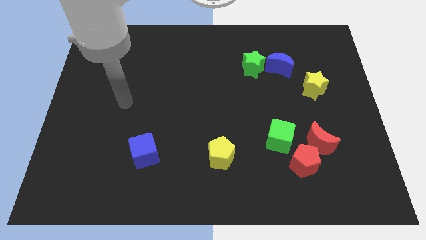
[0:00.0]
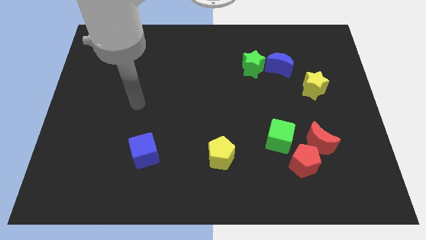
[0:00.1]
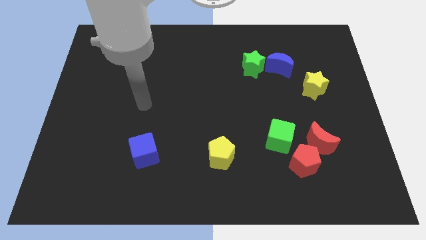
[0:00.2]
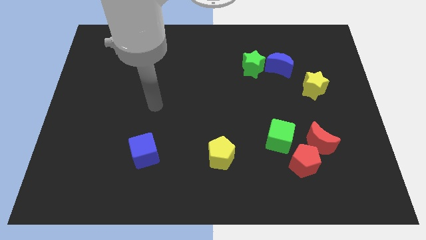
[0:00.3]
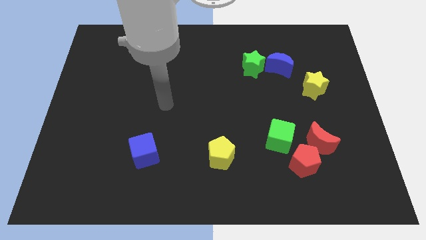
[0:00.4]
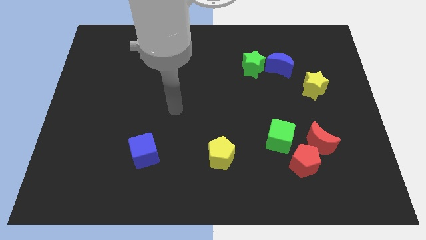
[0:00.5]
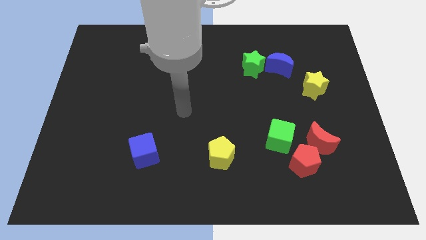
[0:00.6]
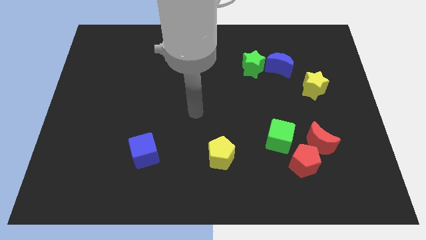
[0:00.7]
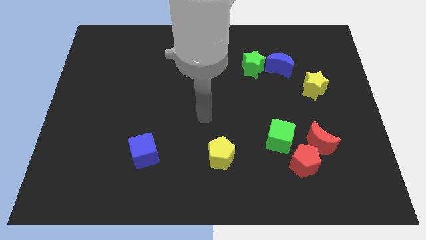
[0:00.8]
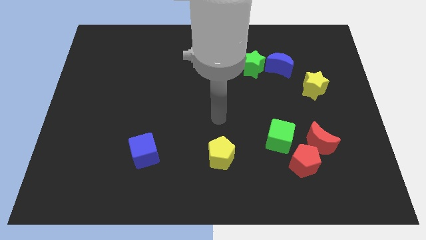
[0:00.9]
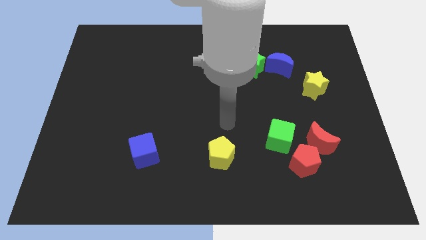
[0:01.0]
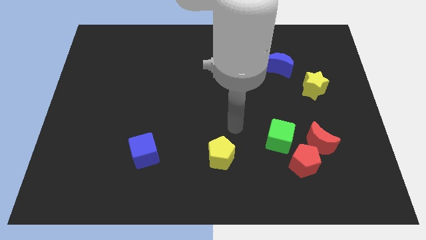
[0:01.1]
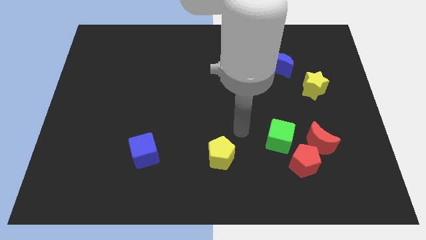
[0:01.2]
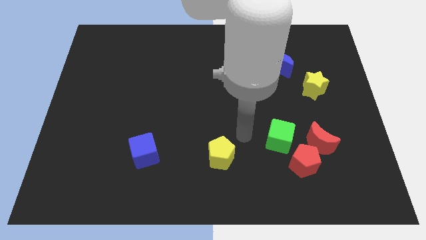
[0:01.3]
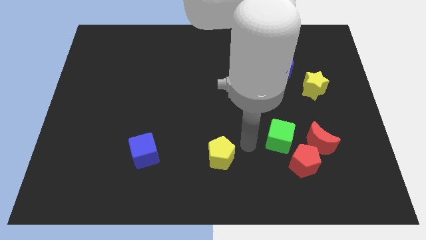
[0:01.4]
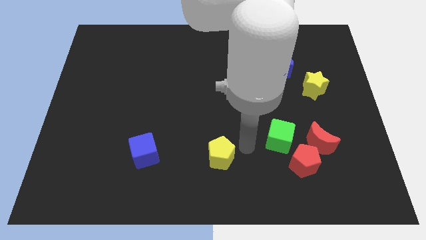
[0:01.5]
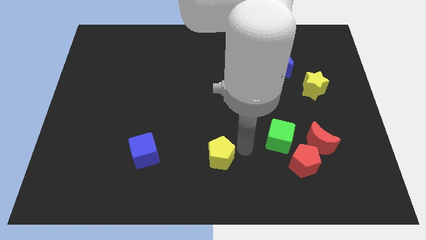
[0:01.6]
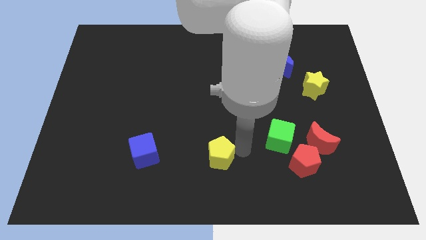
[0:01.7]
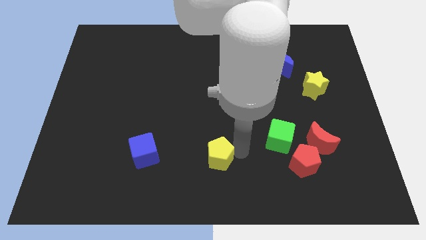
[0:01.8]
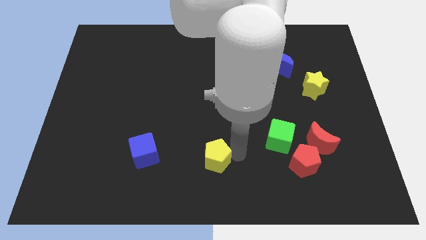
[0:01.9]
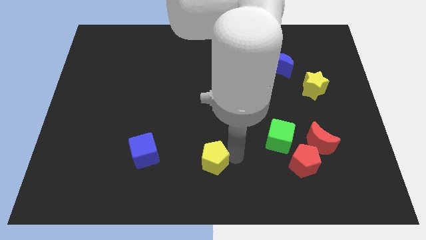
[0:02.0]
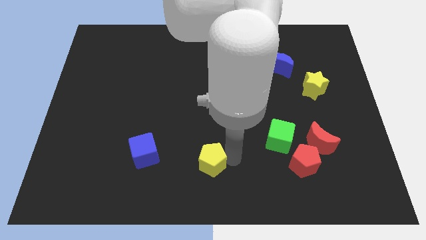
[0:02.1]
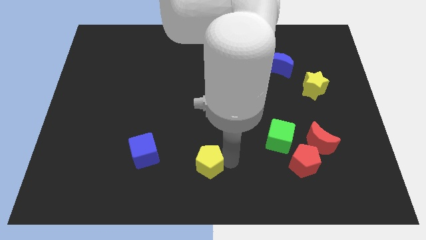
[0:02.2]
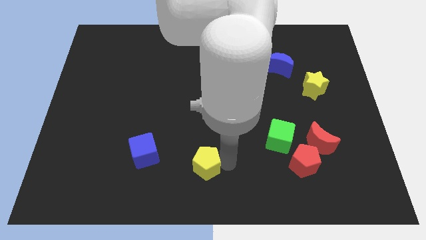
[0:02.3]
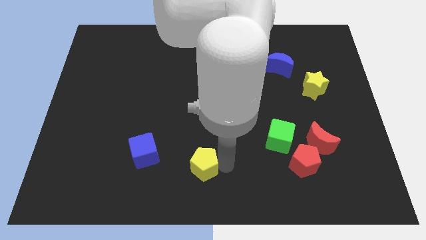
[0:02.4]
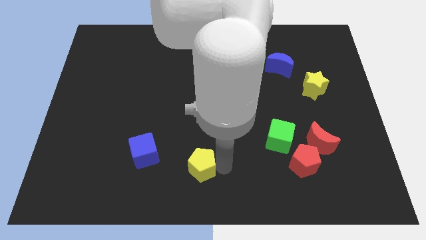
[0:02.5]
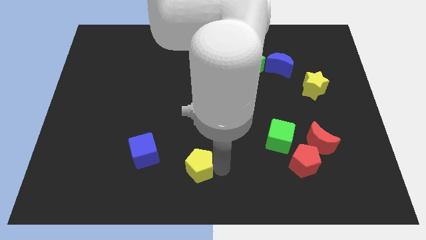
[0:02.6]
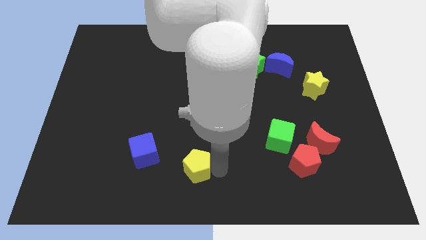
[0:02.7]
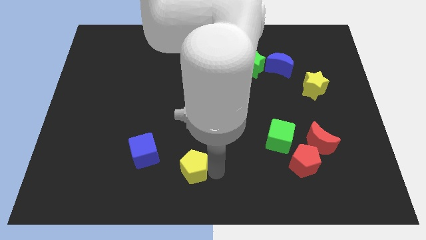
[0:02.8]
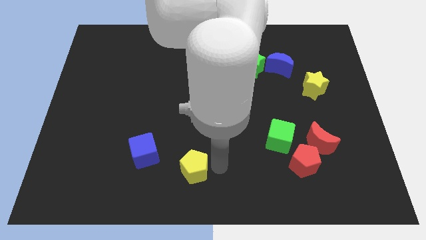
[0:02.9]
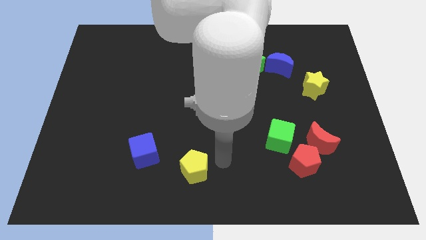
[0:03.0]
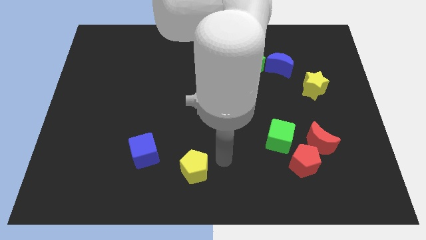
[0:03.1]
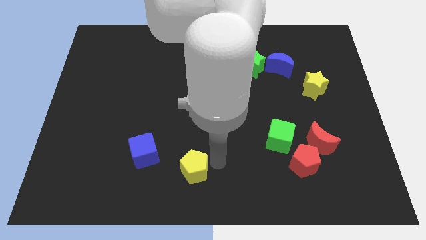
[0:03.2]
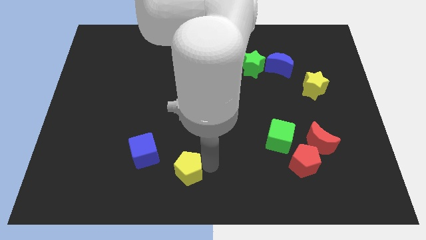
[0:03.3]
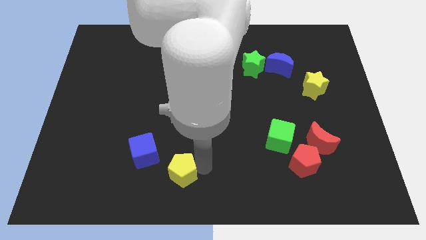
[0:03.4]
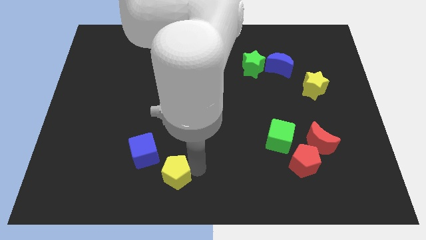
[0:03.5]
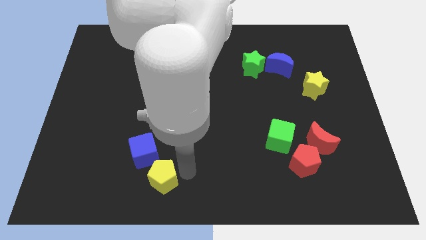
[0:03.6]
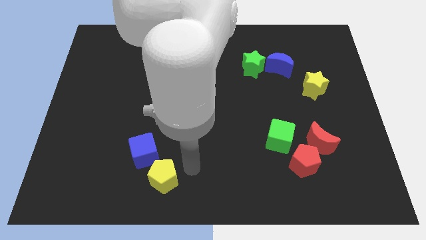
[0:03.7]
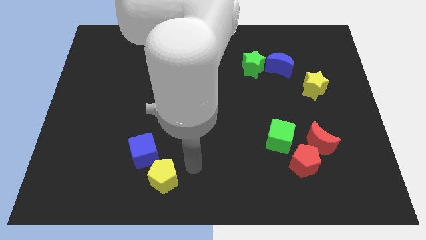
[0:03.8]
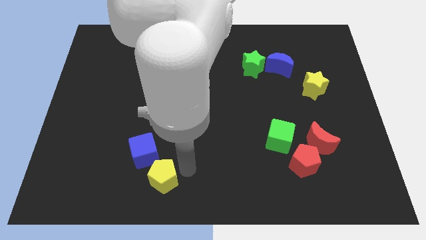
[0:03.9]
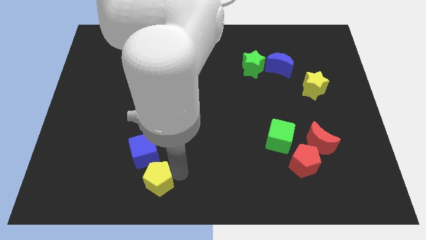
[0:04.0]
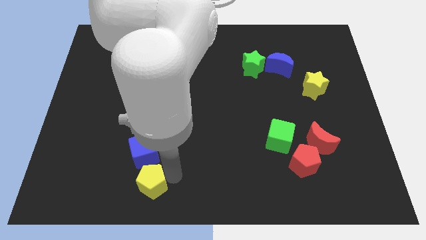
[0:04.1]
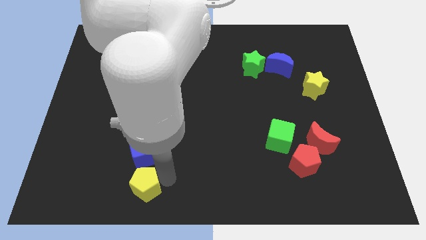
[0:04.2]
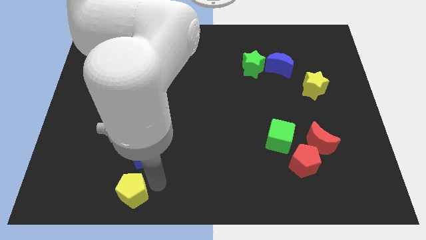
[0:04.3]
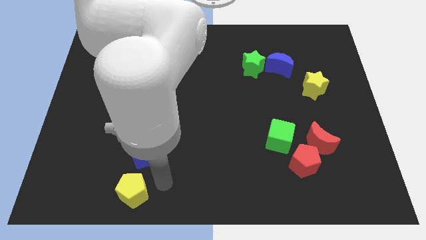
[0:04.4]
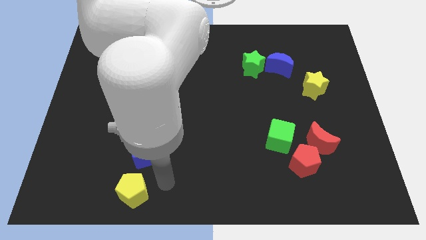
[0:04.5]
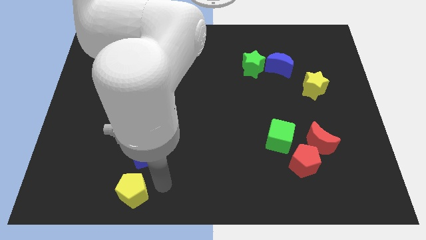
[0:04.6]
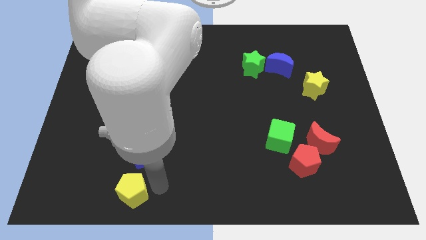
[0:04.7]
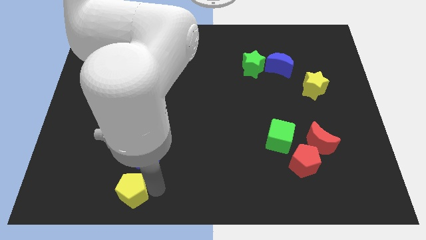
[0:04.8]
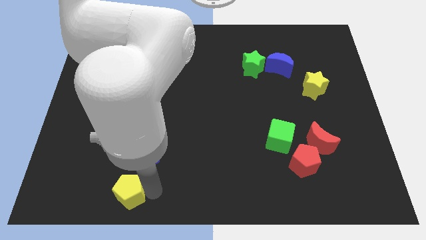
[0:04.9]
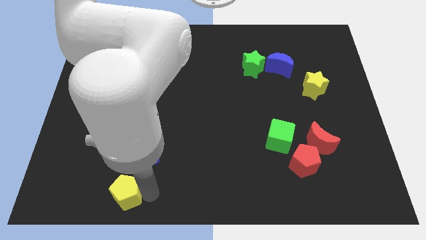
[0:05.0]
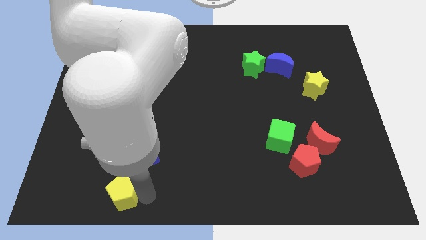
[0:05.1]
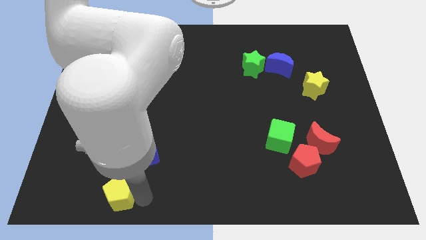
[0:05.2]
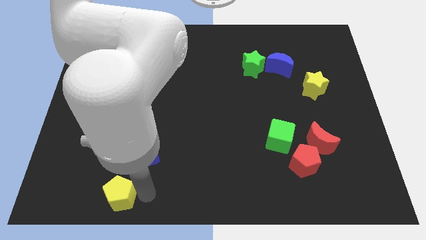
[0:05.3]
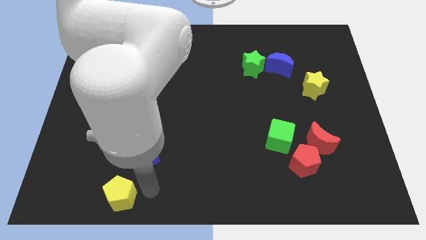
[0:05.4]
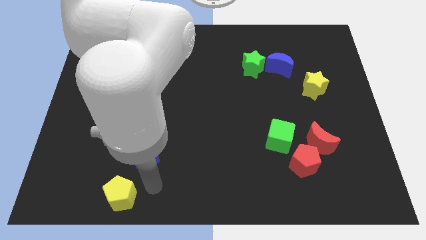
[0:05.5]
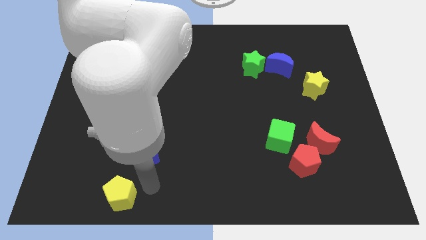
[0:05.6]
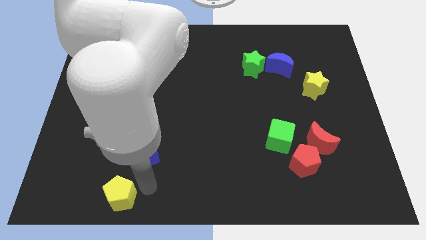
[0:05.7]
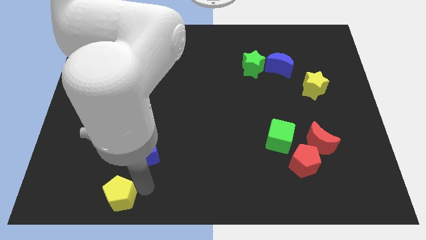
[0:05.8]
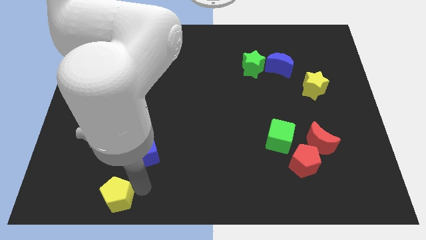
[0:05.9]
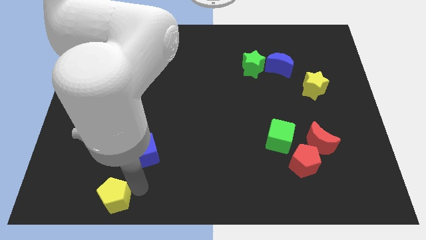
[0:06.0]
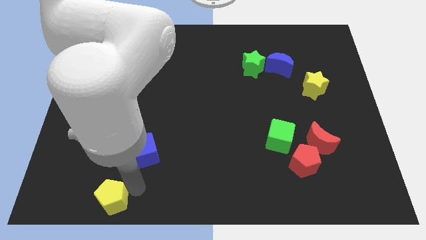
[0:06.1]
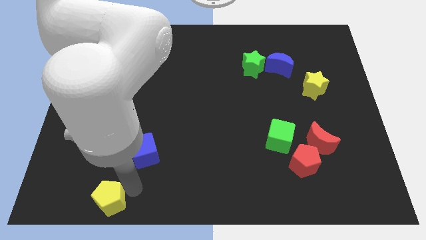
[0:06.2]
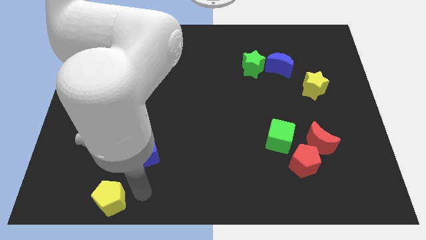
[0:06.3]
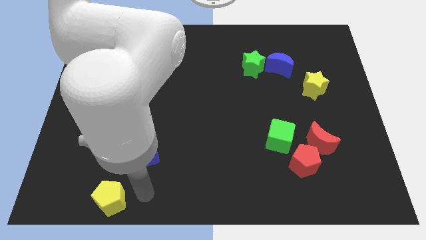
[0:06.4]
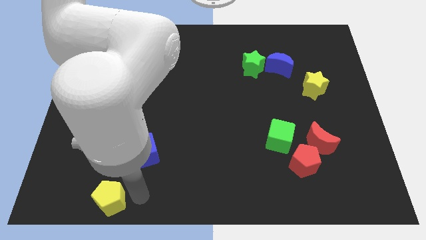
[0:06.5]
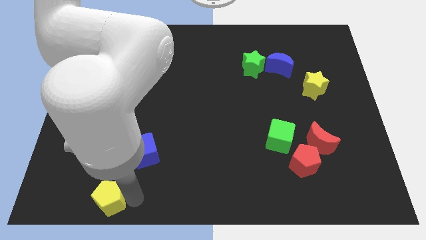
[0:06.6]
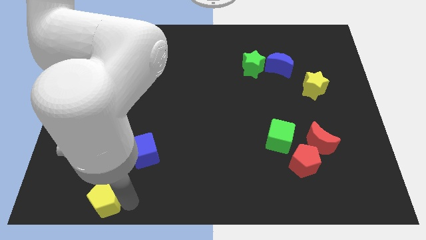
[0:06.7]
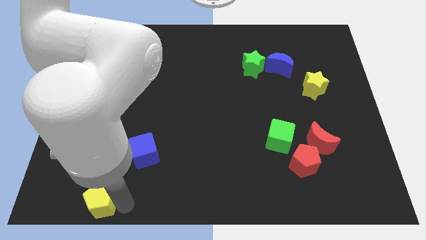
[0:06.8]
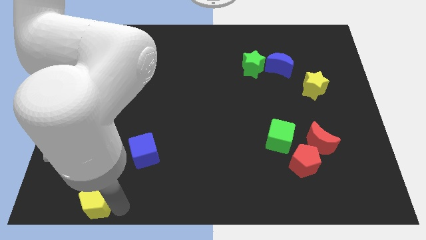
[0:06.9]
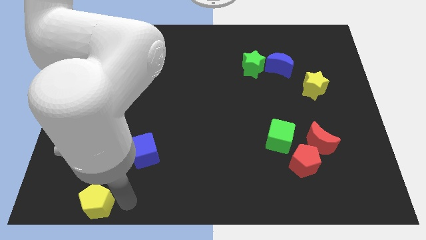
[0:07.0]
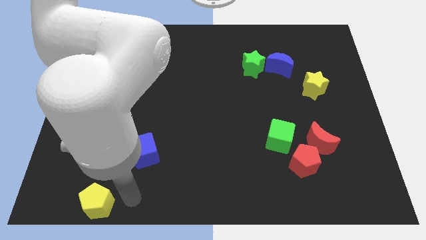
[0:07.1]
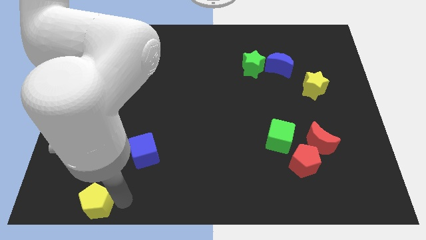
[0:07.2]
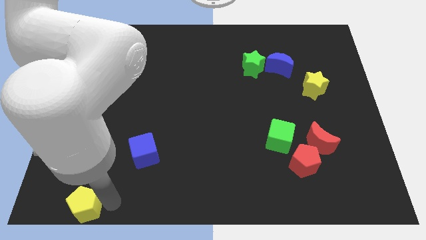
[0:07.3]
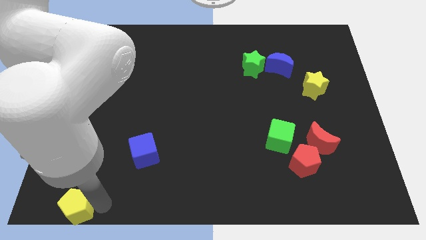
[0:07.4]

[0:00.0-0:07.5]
push the yellow pentagon to the bottom left corner

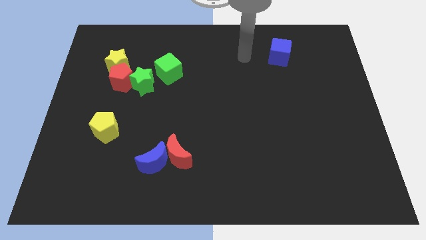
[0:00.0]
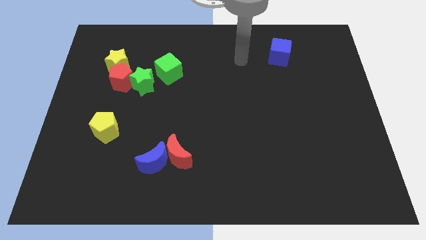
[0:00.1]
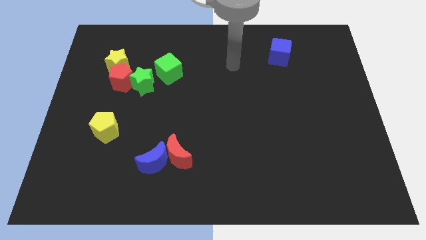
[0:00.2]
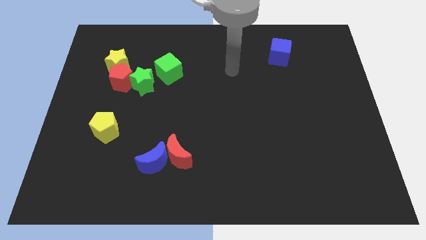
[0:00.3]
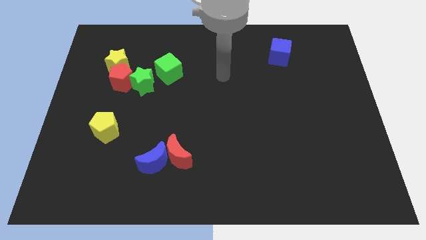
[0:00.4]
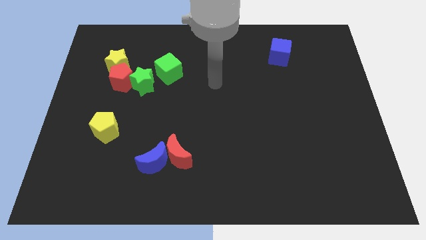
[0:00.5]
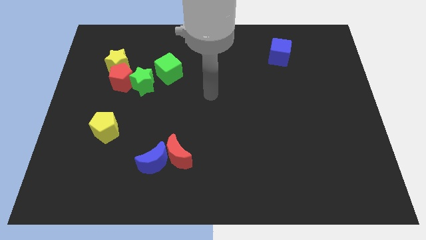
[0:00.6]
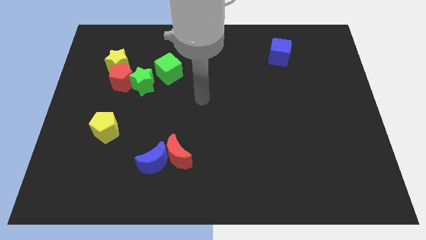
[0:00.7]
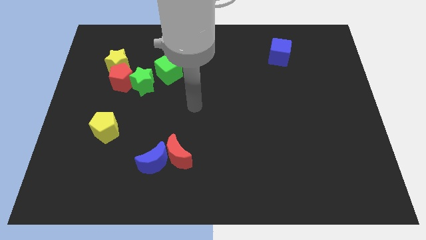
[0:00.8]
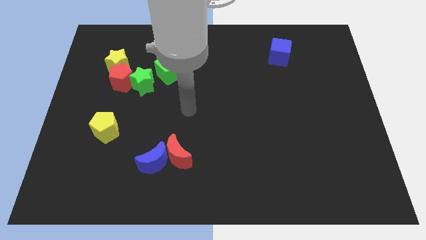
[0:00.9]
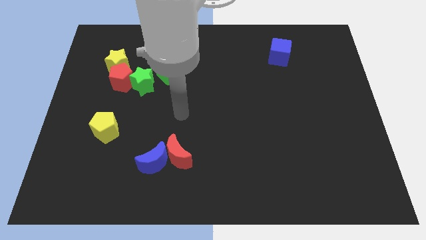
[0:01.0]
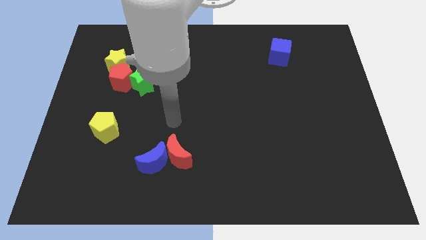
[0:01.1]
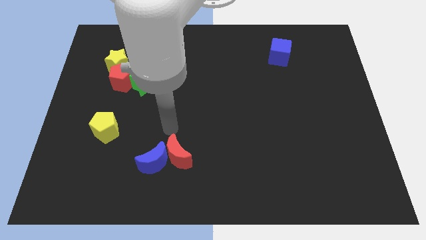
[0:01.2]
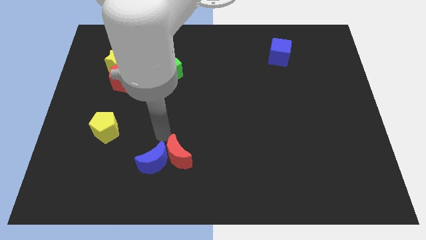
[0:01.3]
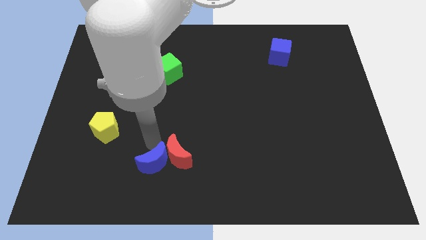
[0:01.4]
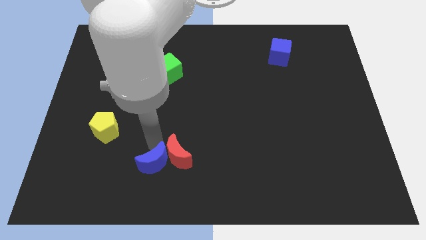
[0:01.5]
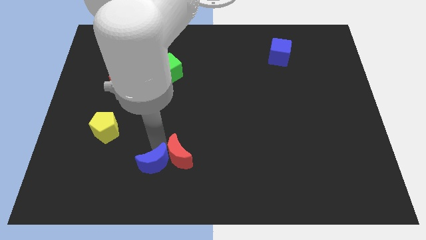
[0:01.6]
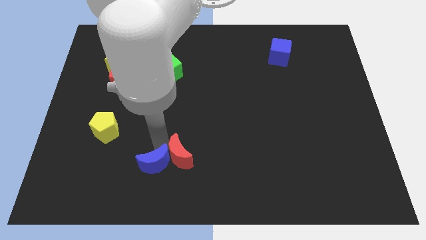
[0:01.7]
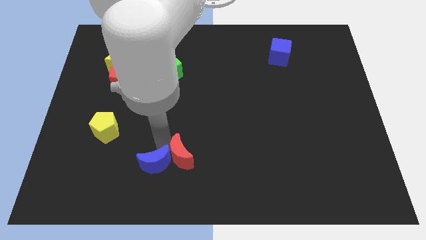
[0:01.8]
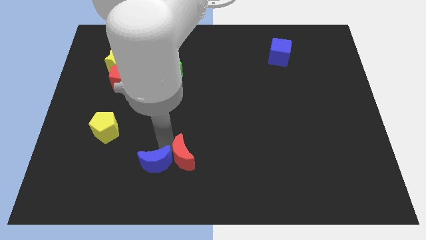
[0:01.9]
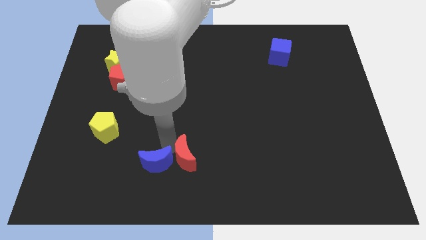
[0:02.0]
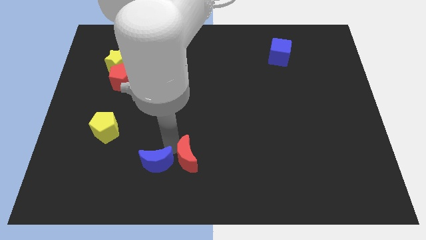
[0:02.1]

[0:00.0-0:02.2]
move the red moon to the bottom side
